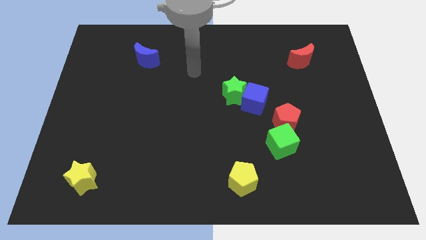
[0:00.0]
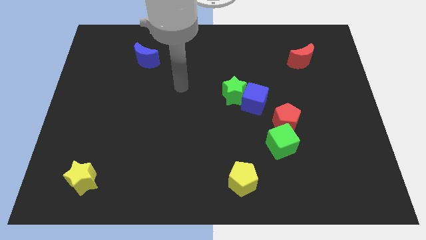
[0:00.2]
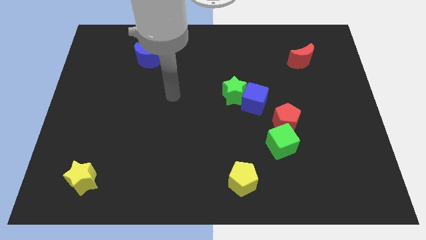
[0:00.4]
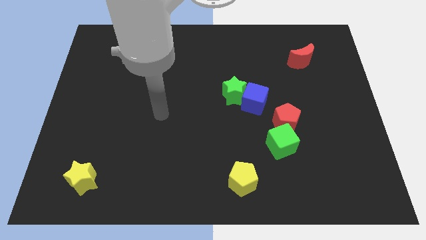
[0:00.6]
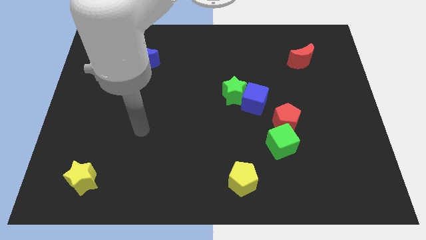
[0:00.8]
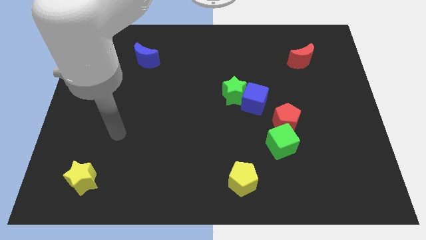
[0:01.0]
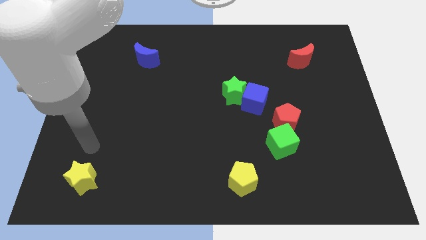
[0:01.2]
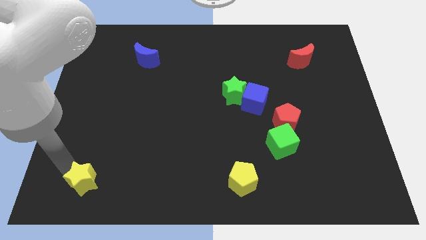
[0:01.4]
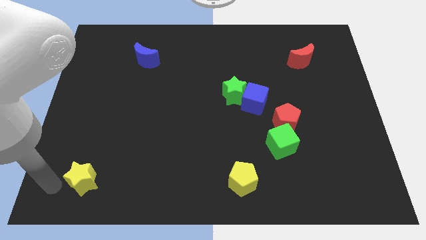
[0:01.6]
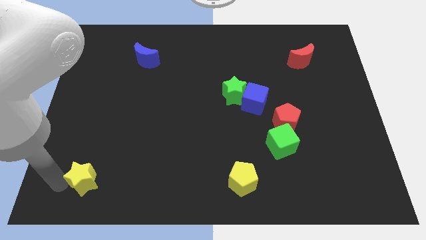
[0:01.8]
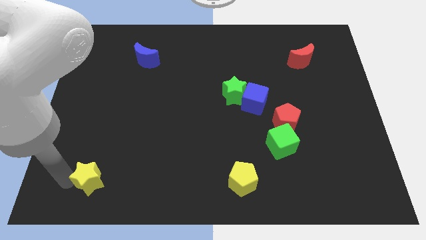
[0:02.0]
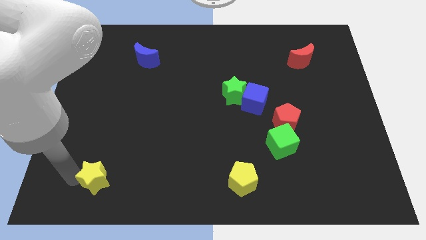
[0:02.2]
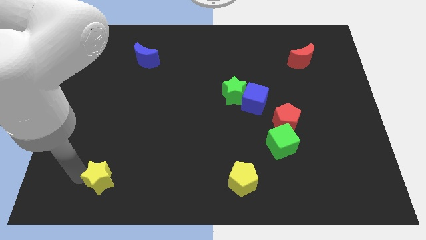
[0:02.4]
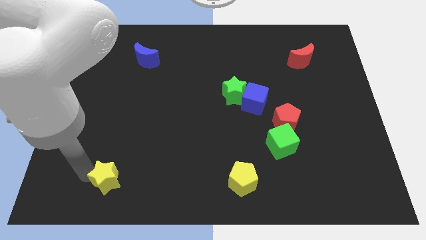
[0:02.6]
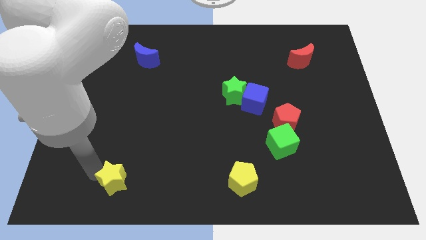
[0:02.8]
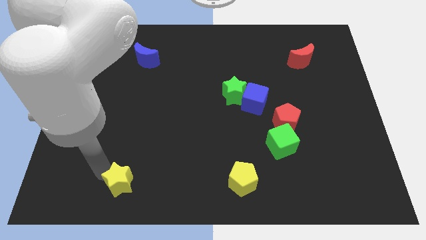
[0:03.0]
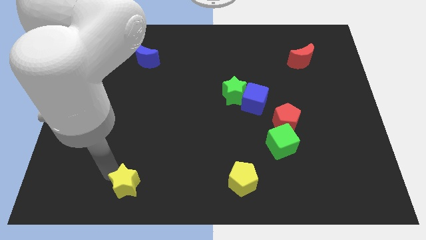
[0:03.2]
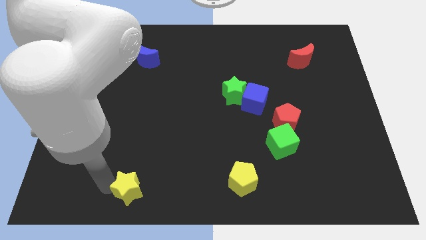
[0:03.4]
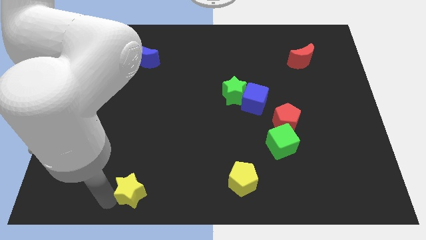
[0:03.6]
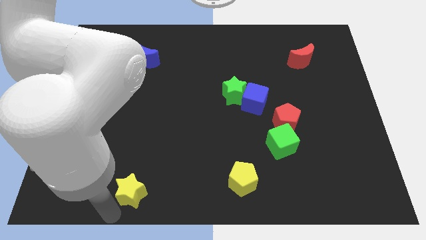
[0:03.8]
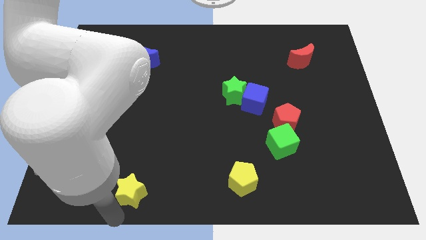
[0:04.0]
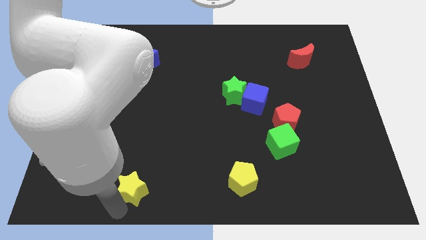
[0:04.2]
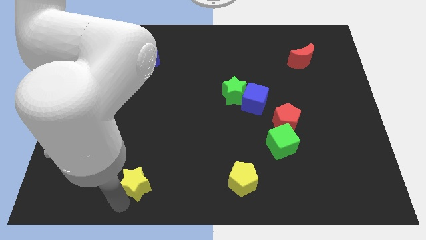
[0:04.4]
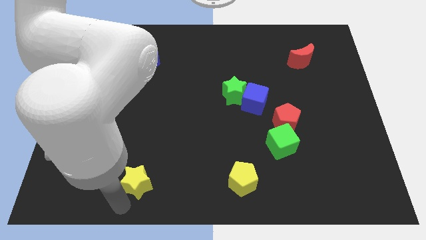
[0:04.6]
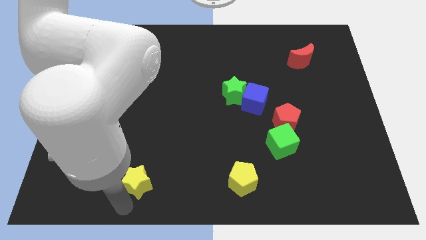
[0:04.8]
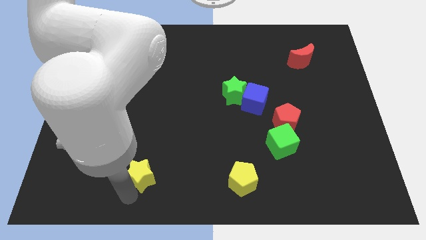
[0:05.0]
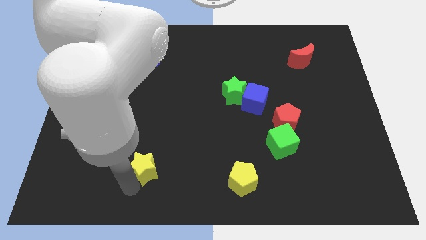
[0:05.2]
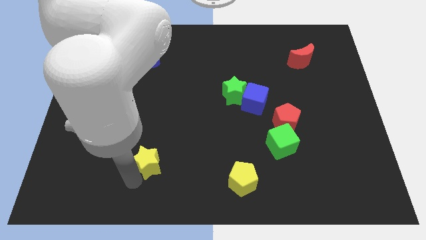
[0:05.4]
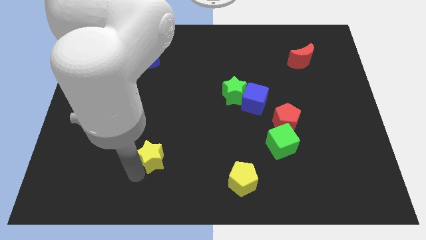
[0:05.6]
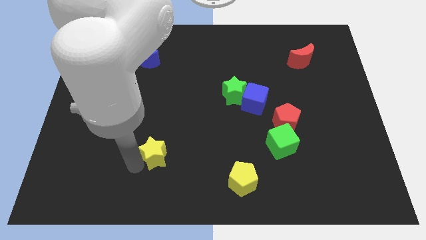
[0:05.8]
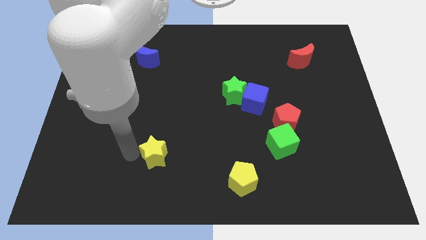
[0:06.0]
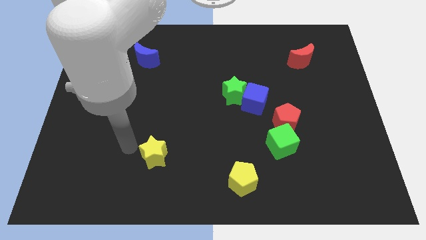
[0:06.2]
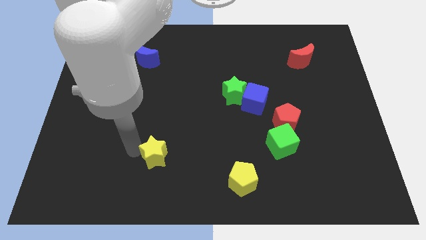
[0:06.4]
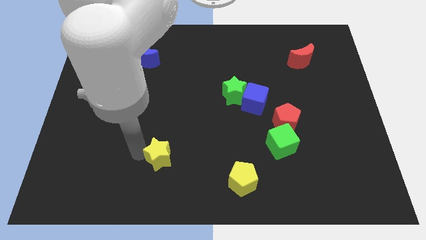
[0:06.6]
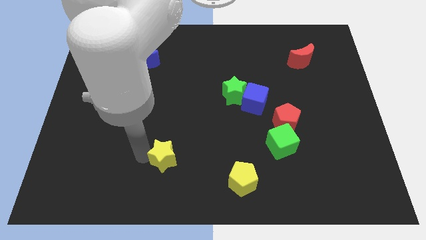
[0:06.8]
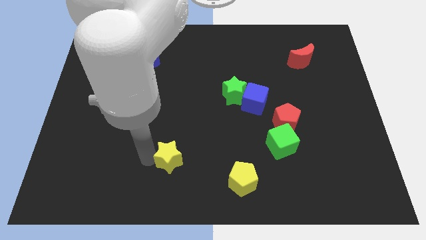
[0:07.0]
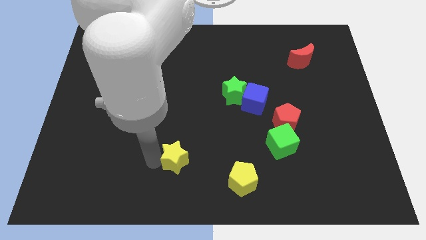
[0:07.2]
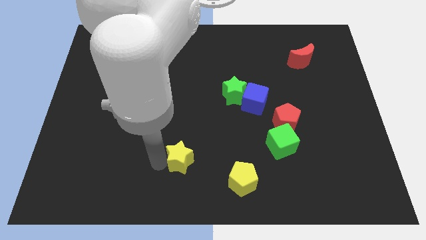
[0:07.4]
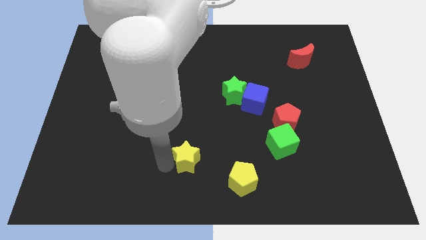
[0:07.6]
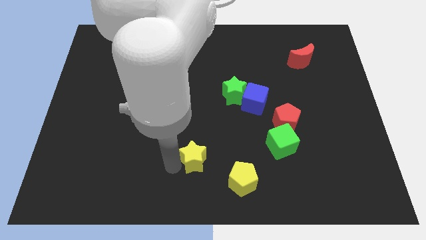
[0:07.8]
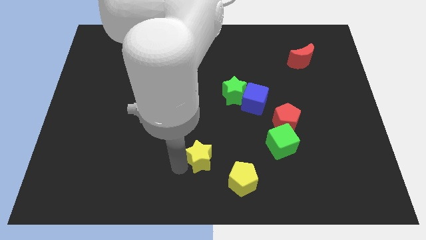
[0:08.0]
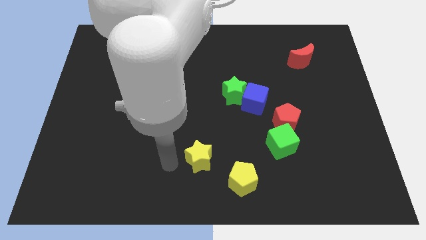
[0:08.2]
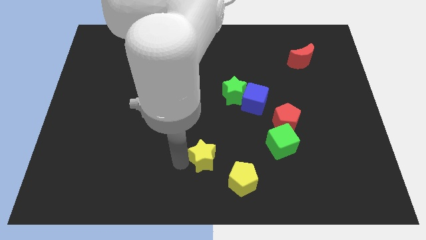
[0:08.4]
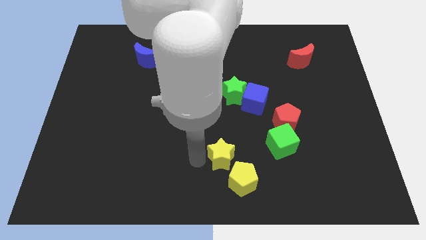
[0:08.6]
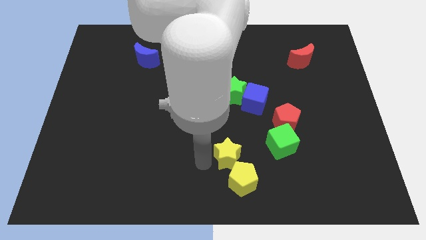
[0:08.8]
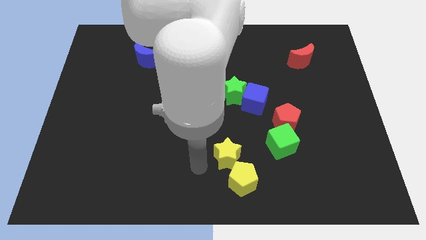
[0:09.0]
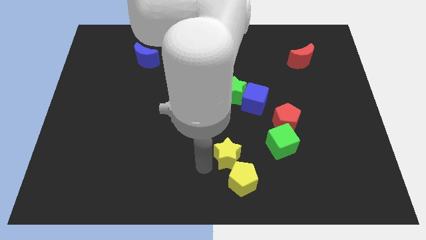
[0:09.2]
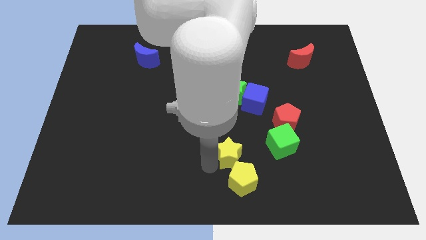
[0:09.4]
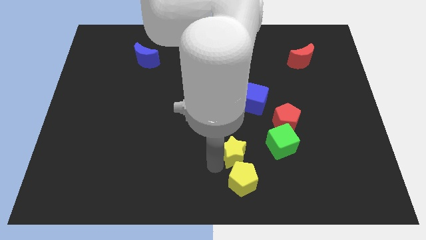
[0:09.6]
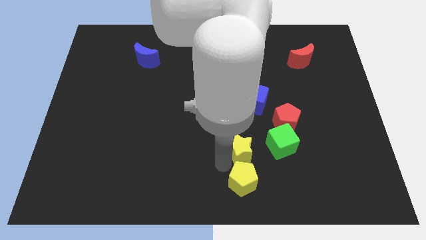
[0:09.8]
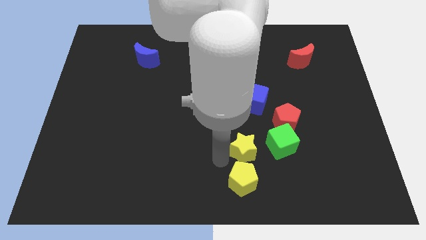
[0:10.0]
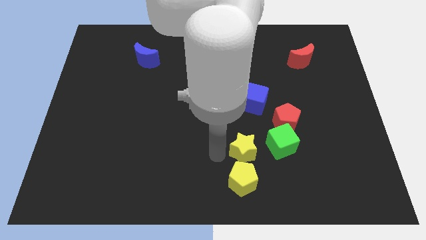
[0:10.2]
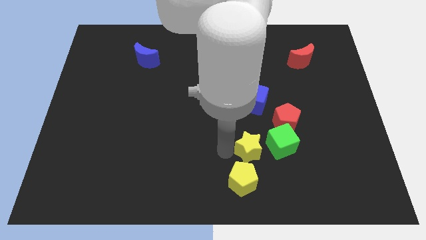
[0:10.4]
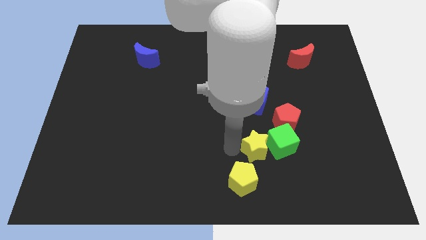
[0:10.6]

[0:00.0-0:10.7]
slide the yellow star close to the green cube

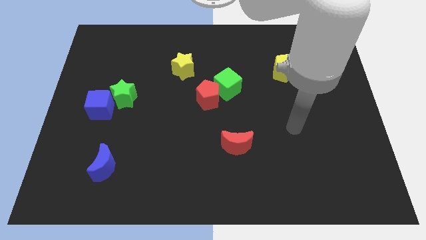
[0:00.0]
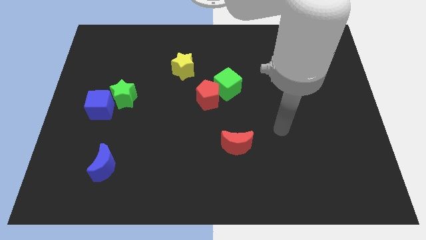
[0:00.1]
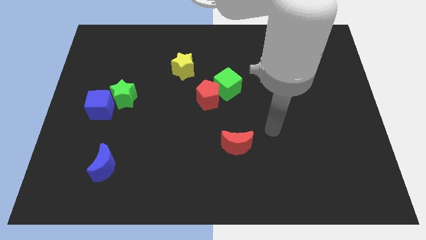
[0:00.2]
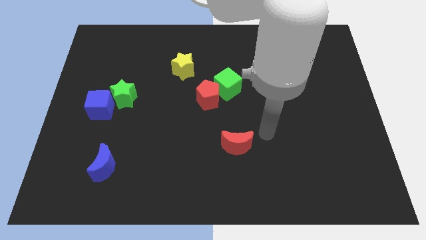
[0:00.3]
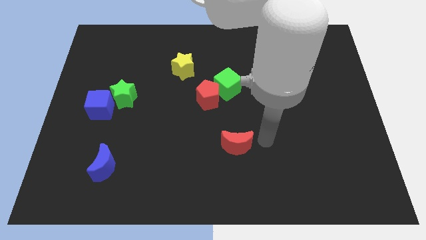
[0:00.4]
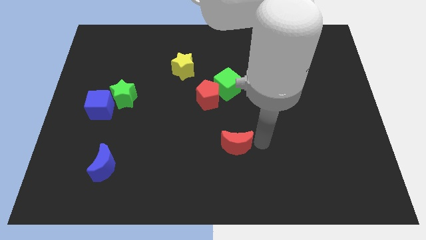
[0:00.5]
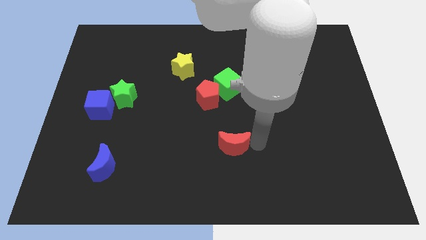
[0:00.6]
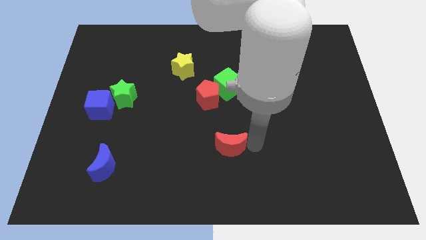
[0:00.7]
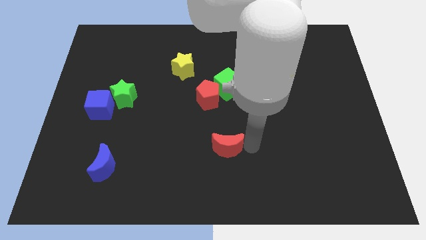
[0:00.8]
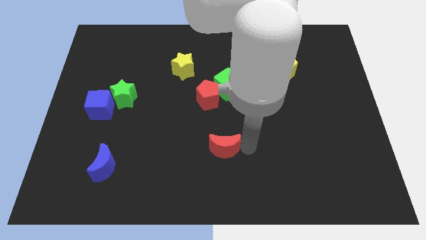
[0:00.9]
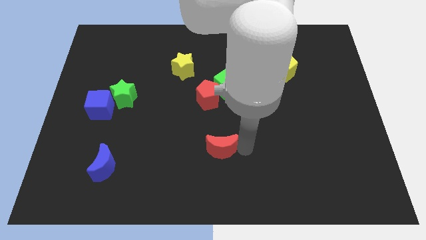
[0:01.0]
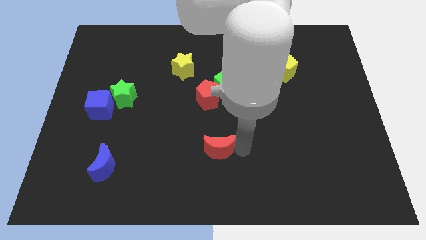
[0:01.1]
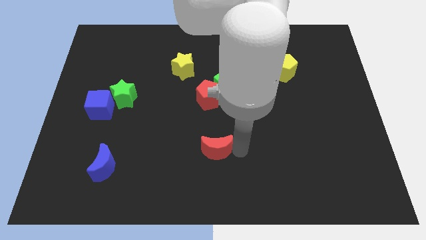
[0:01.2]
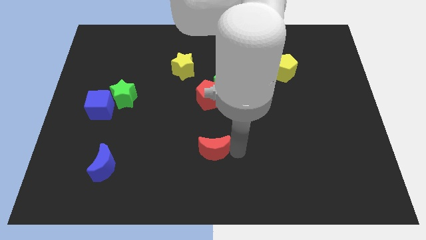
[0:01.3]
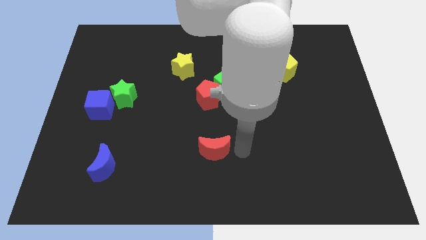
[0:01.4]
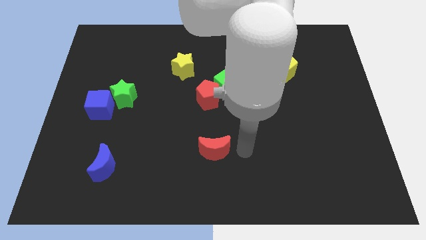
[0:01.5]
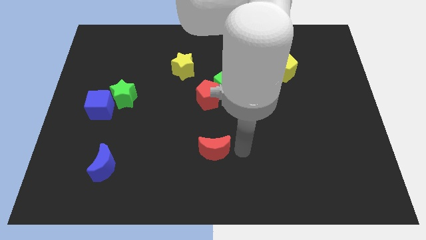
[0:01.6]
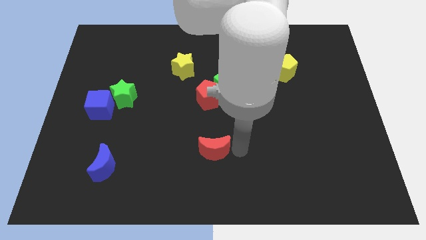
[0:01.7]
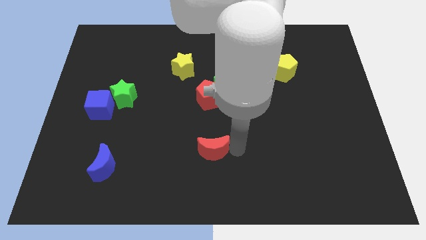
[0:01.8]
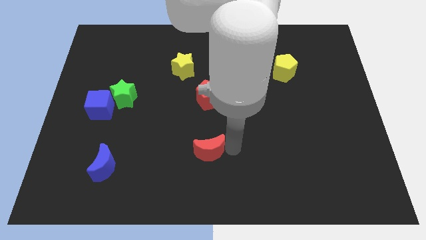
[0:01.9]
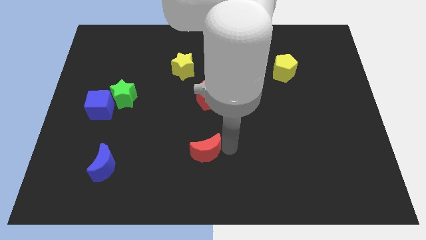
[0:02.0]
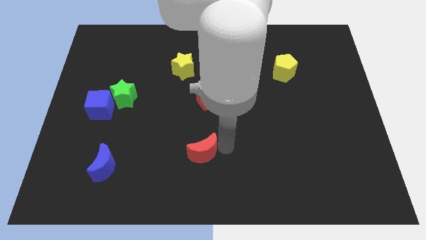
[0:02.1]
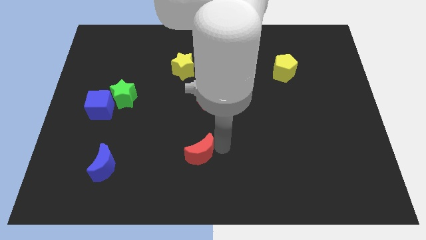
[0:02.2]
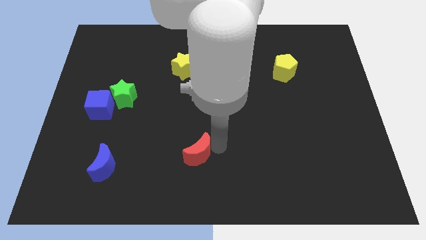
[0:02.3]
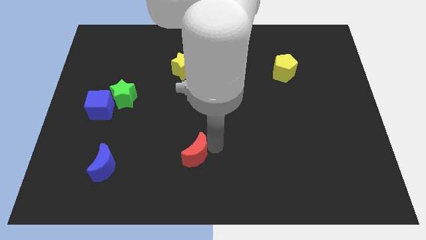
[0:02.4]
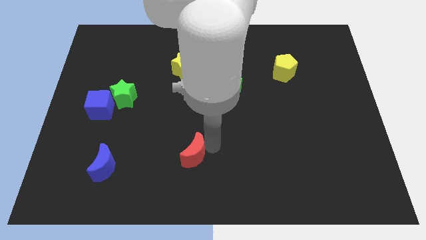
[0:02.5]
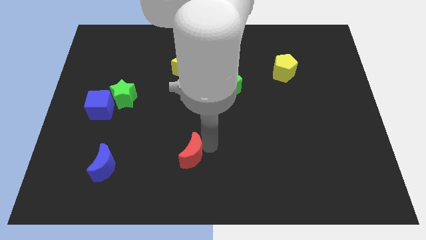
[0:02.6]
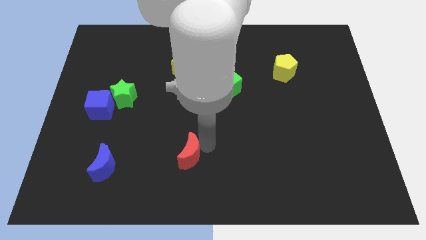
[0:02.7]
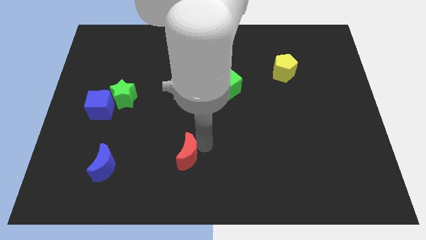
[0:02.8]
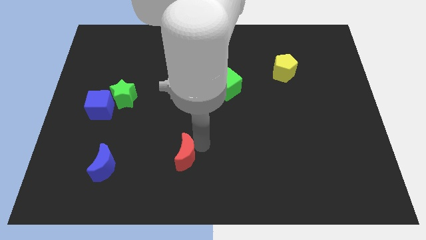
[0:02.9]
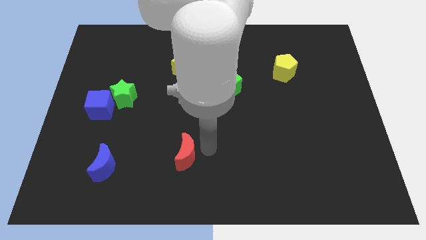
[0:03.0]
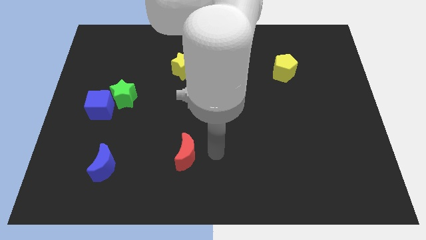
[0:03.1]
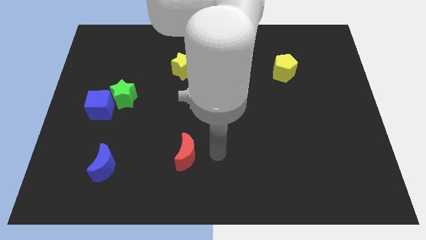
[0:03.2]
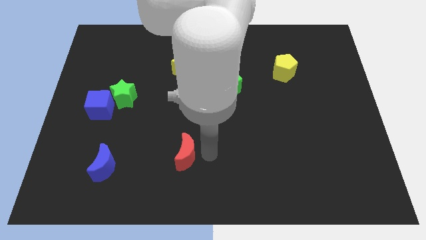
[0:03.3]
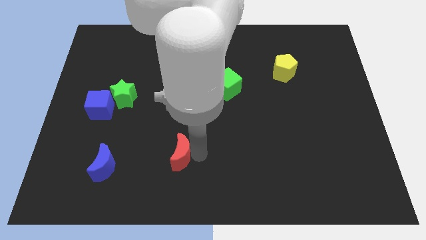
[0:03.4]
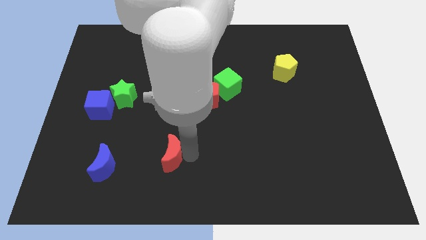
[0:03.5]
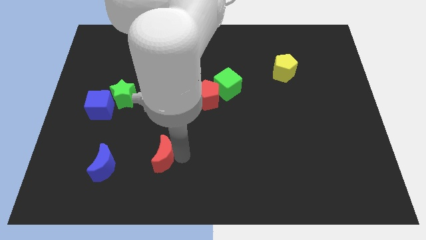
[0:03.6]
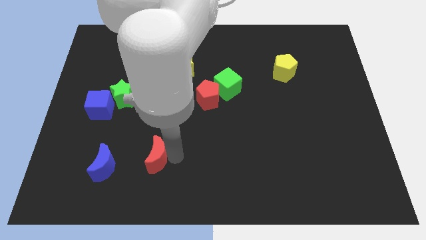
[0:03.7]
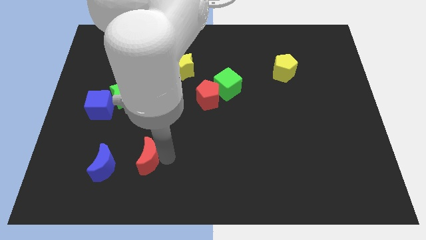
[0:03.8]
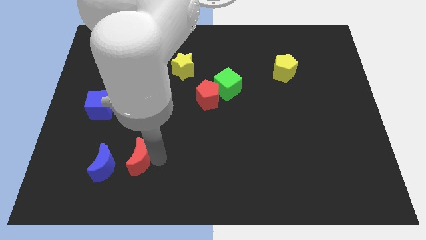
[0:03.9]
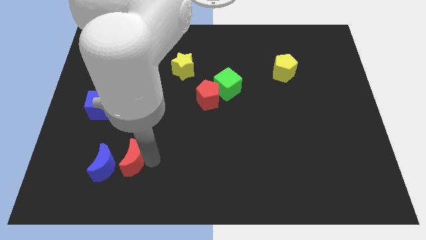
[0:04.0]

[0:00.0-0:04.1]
push the red moon close to the blue moon
